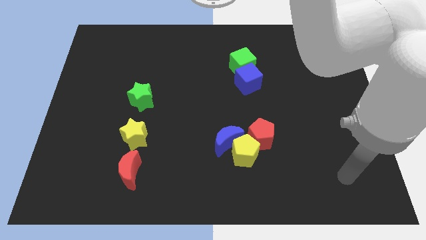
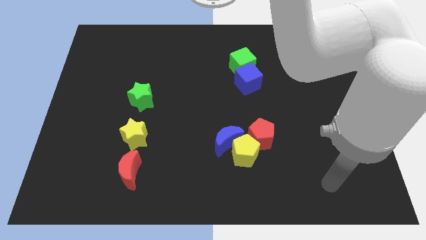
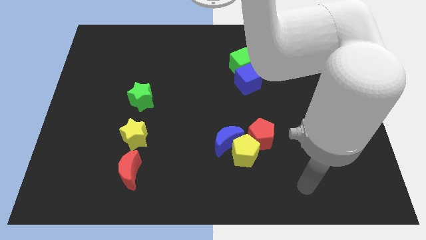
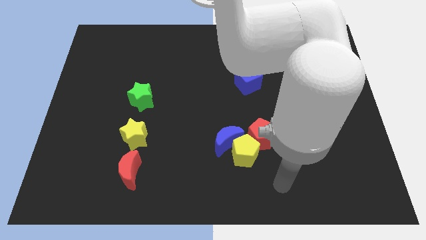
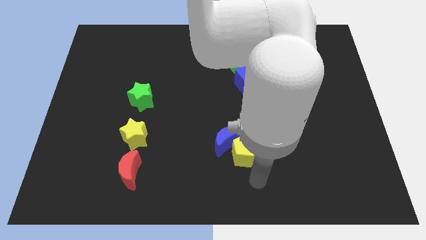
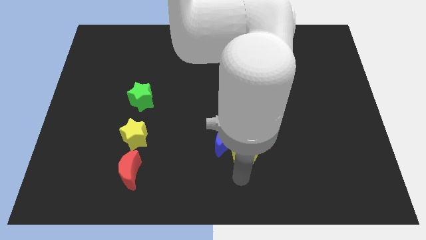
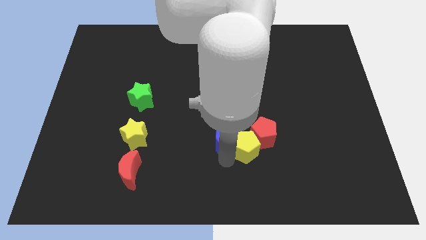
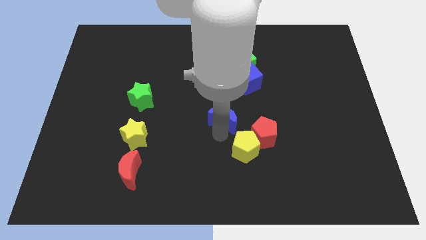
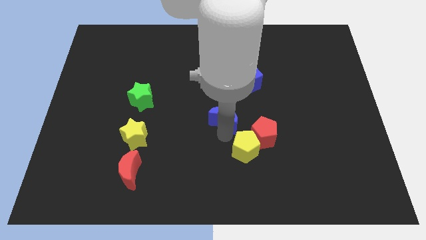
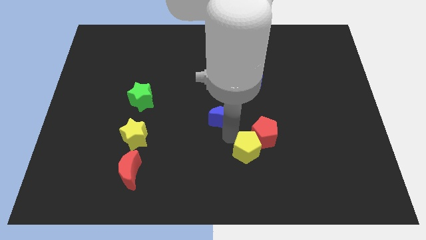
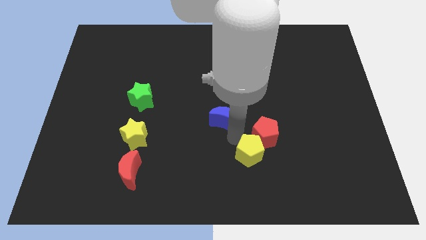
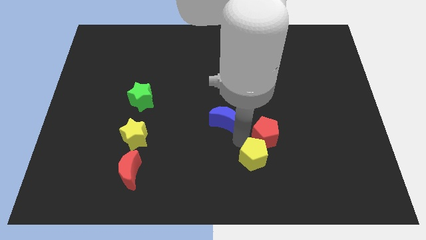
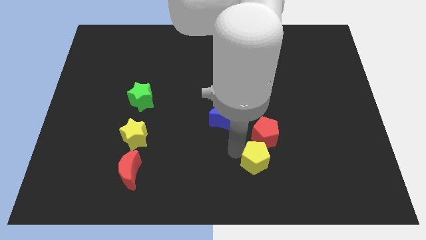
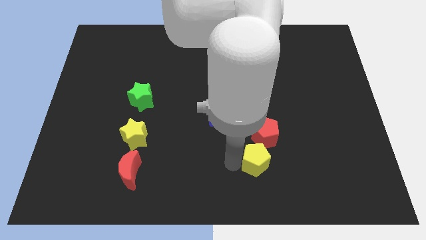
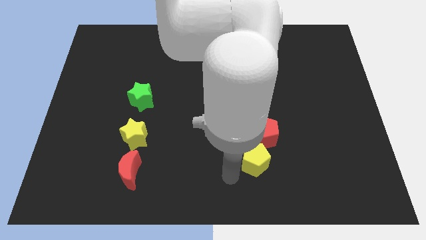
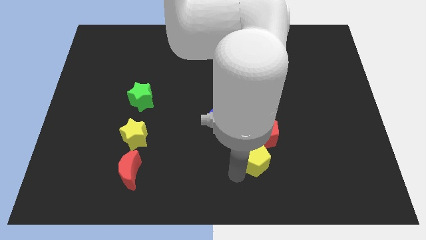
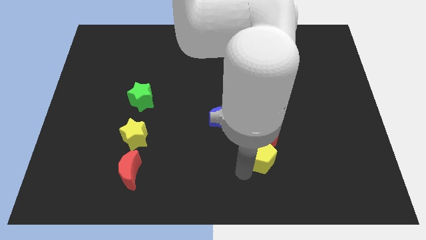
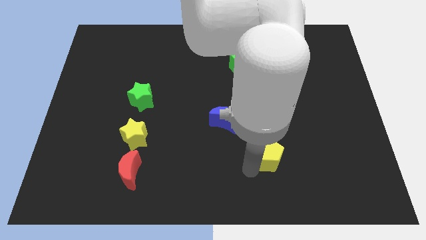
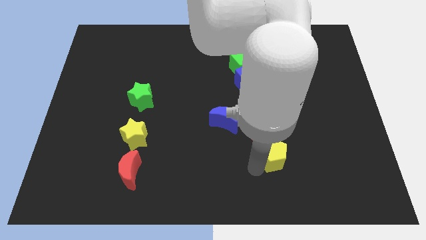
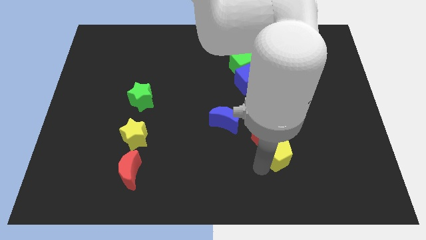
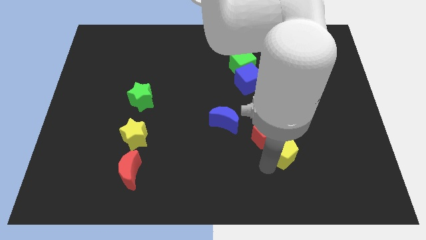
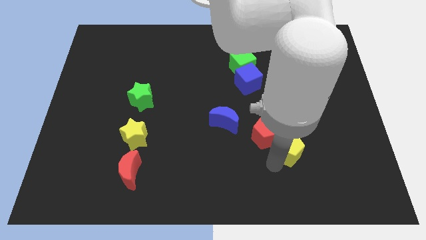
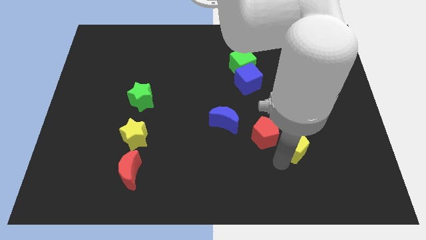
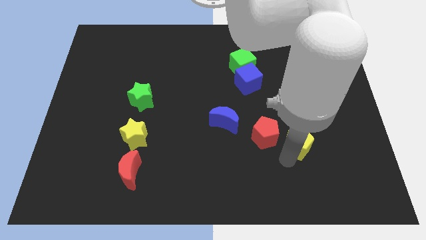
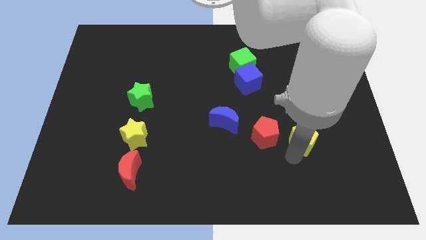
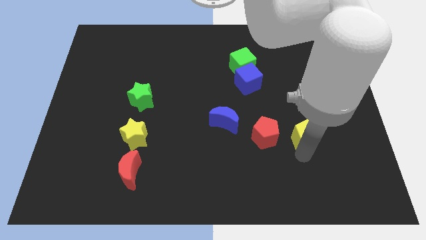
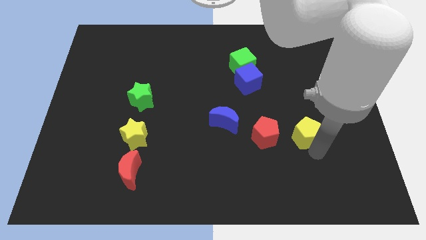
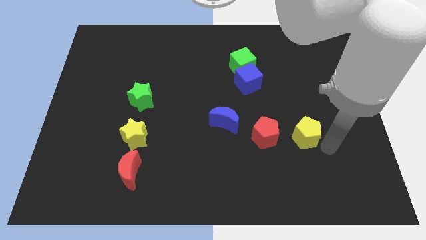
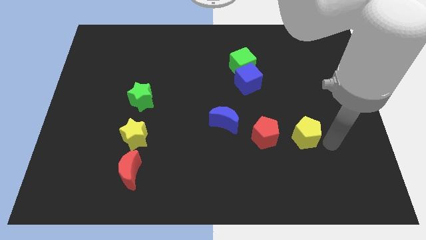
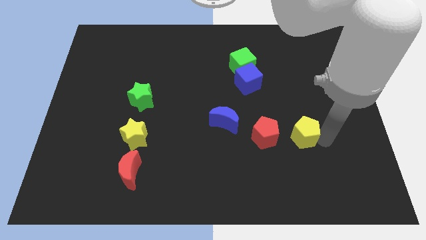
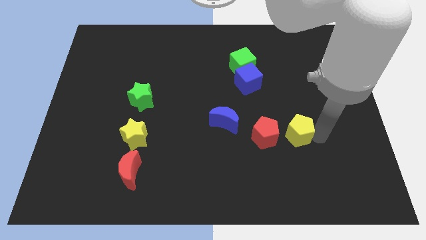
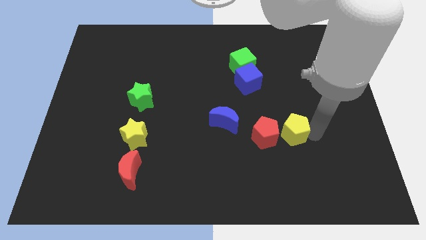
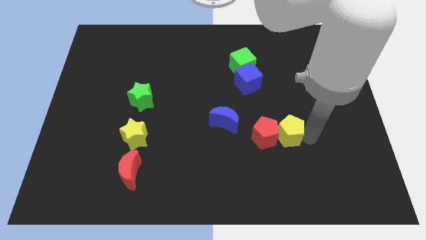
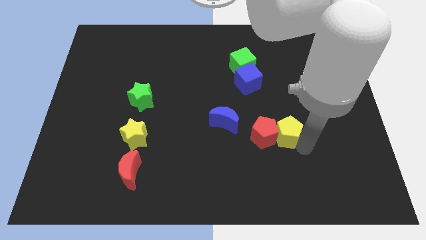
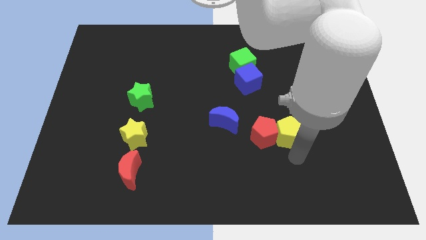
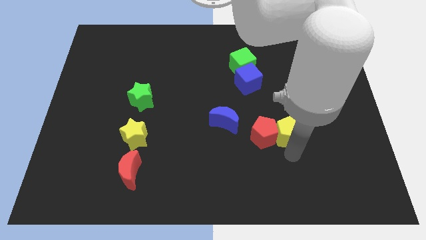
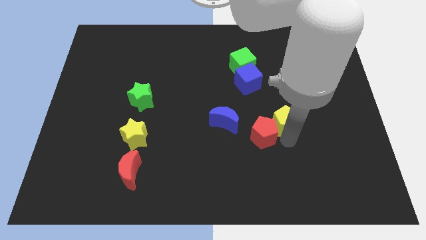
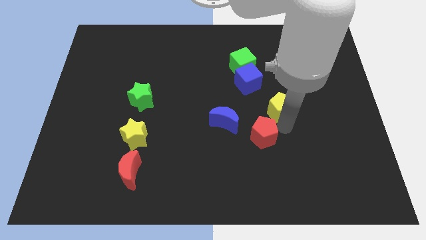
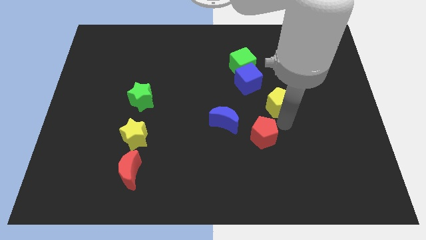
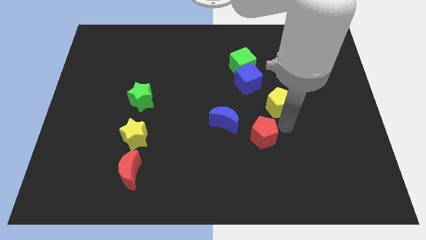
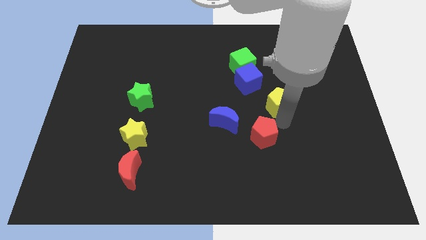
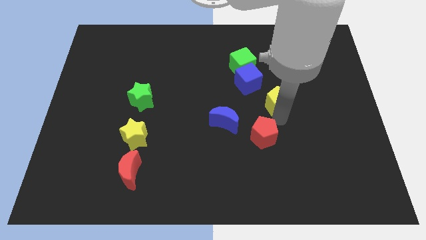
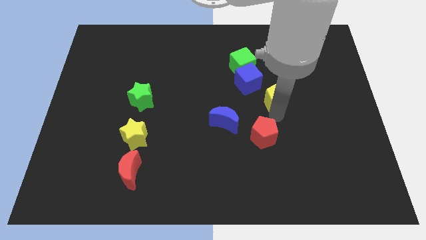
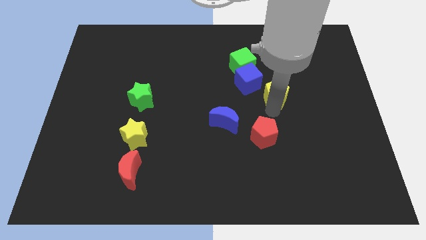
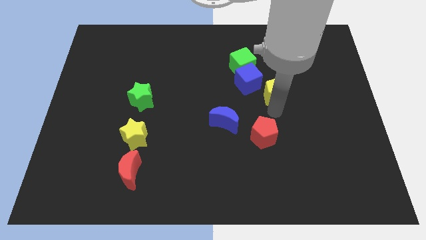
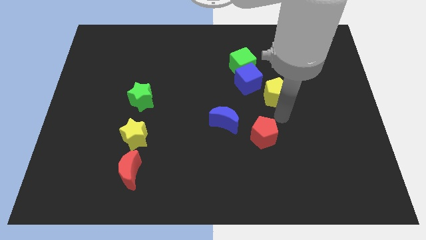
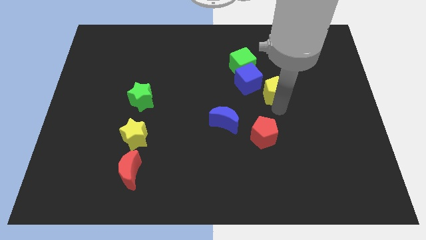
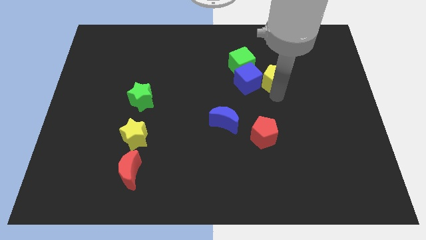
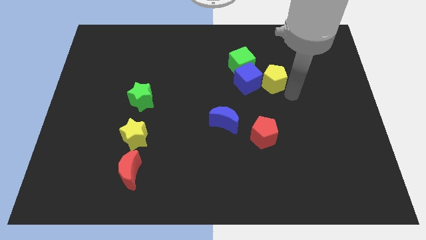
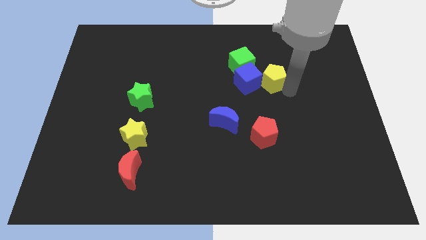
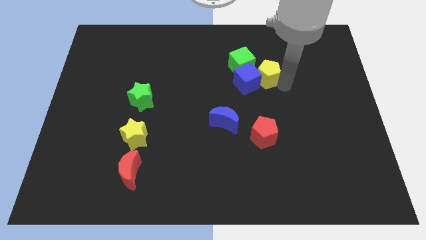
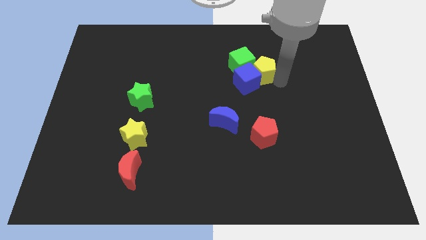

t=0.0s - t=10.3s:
push the yellow pentagon next to the green cube

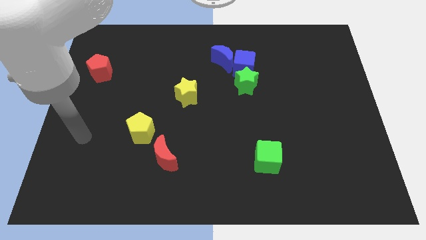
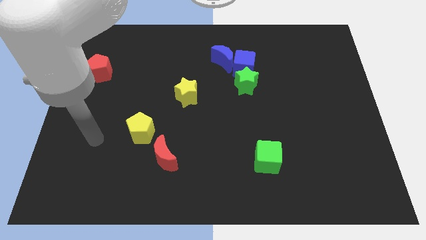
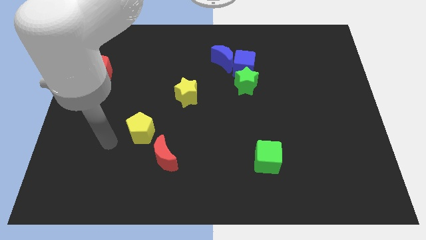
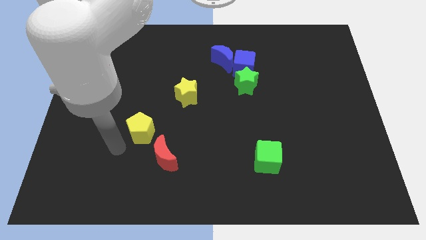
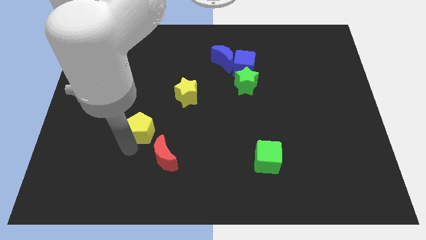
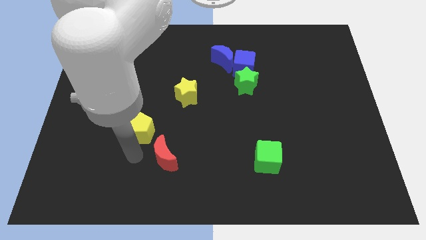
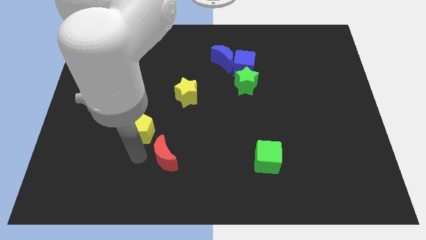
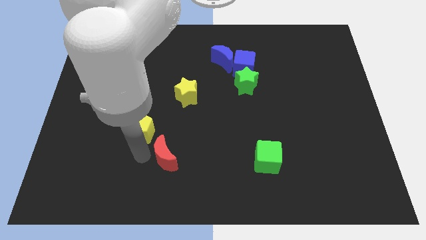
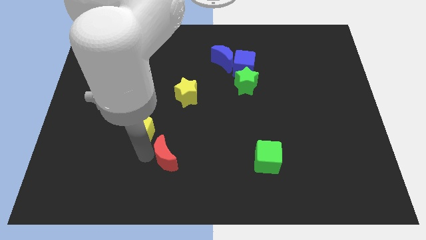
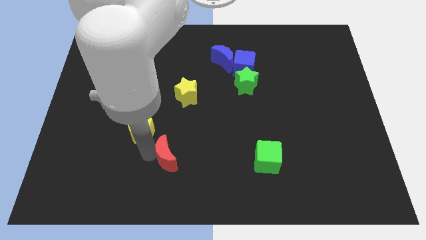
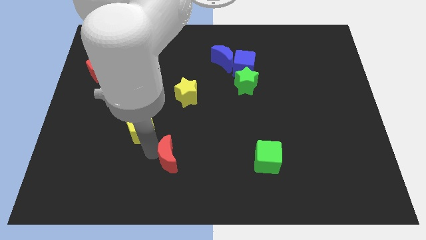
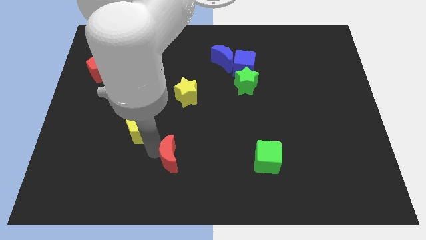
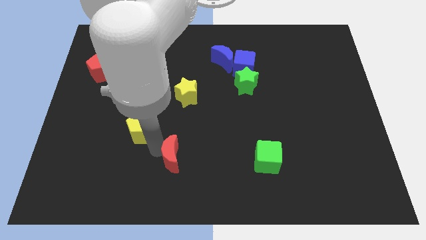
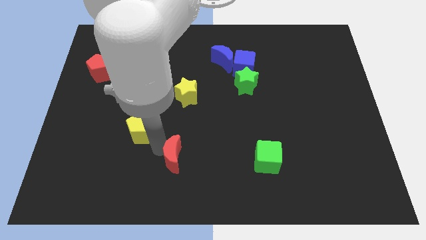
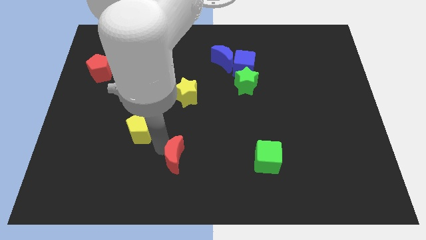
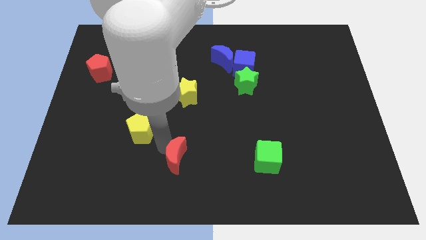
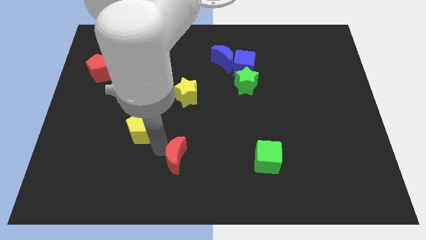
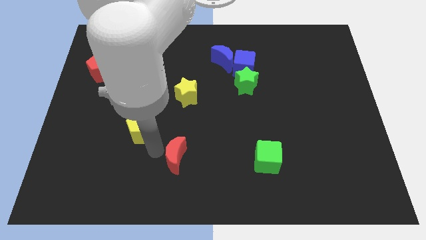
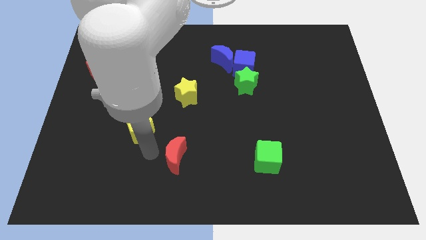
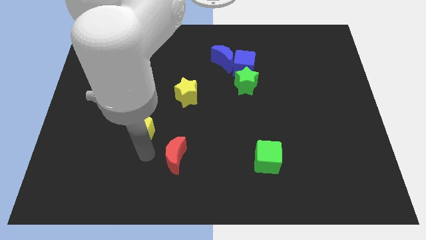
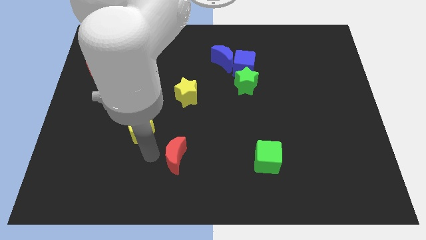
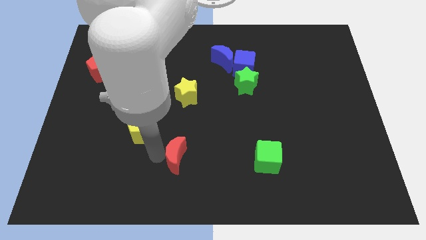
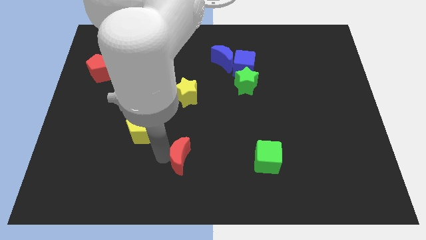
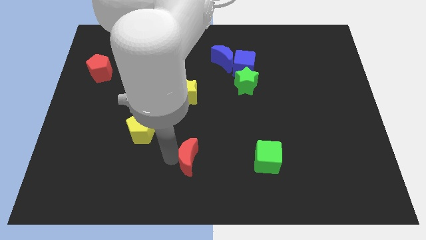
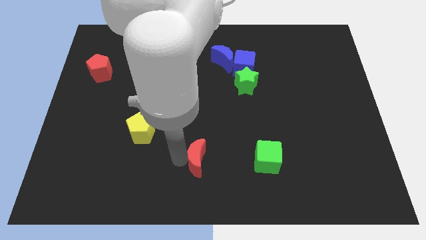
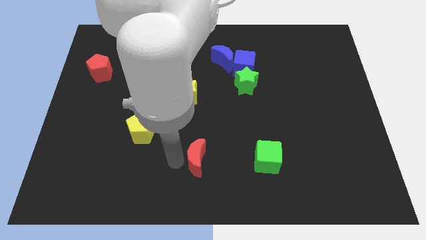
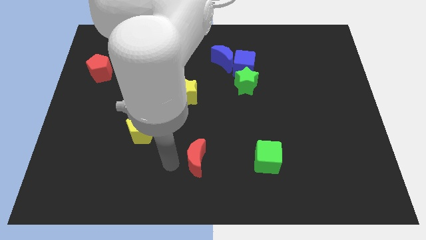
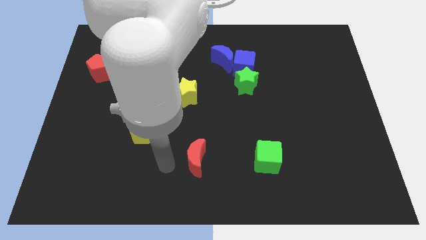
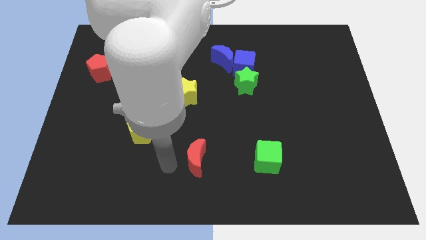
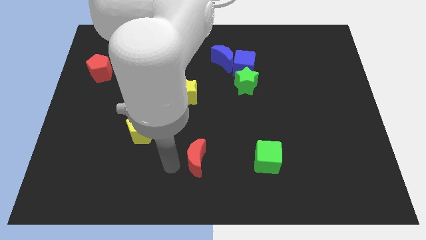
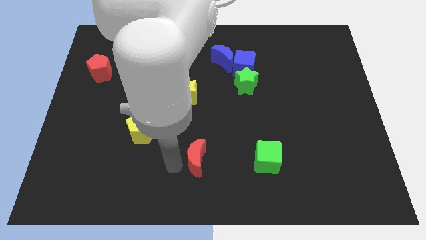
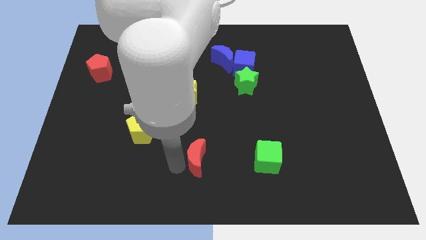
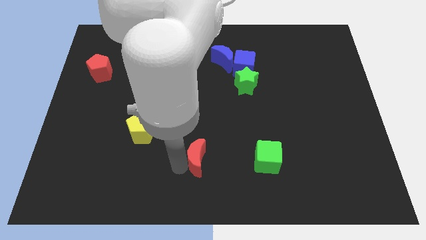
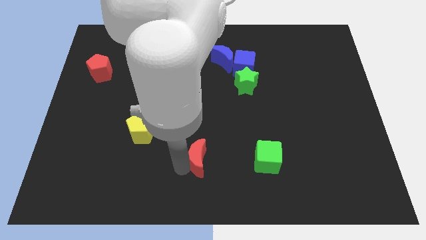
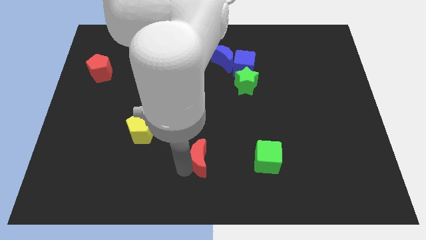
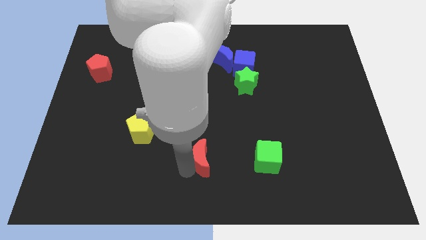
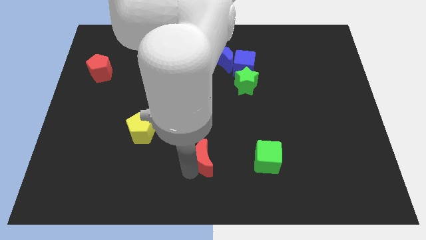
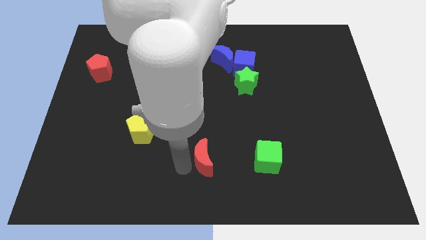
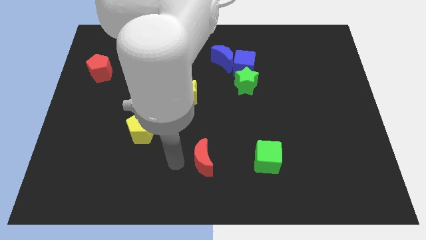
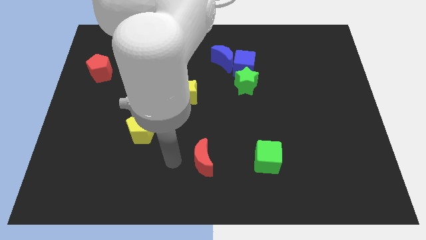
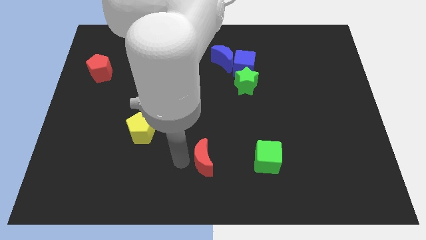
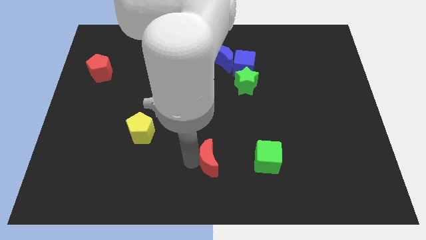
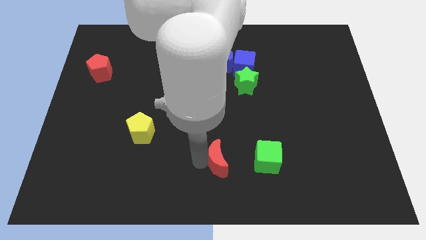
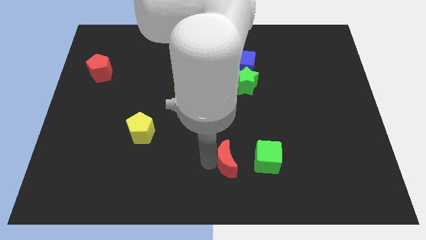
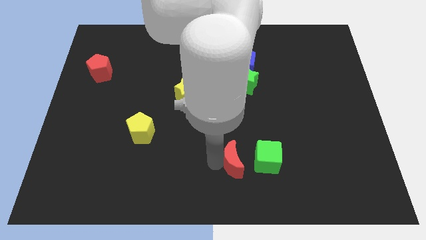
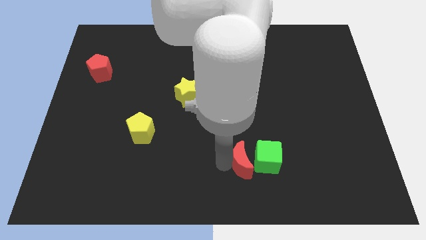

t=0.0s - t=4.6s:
put the red moon towards the green cube
